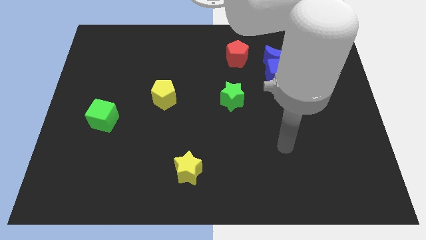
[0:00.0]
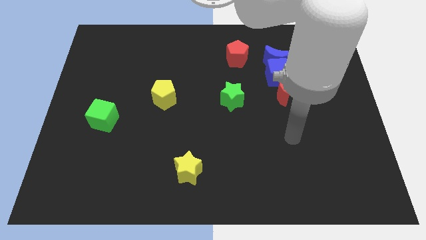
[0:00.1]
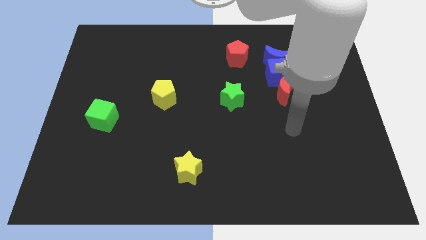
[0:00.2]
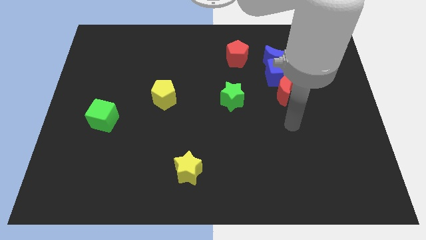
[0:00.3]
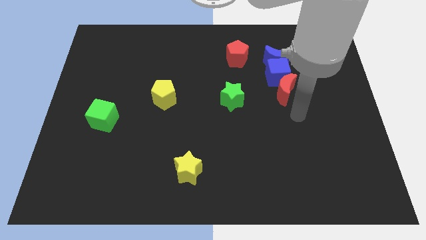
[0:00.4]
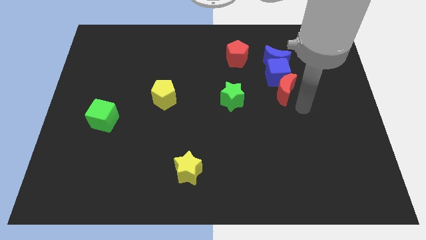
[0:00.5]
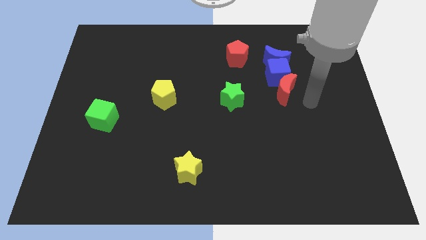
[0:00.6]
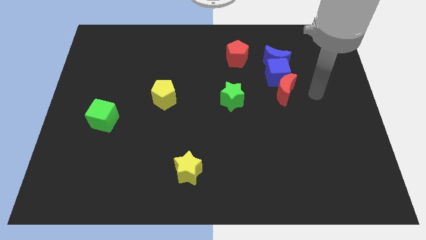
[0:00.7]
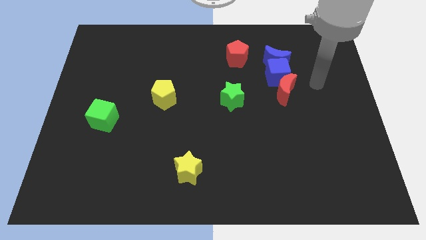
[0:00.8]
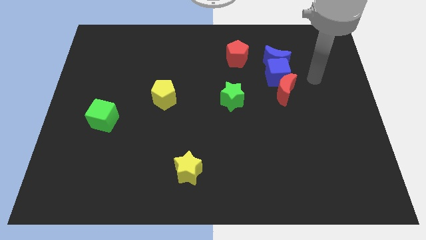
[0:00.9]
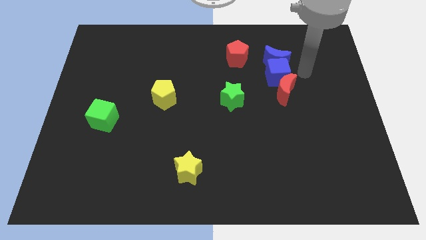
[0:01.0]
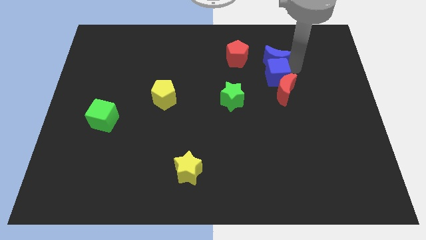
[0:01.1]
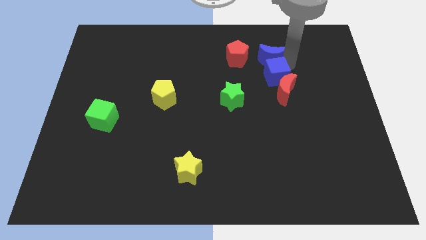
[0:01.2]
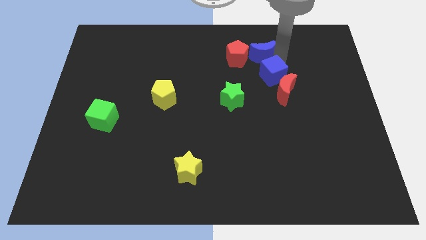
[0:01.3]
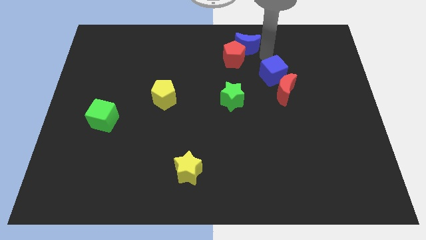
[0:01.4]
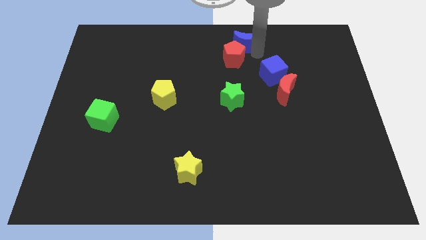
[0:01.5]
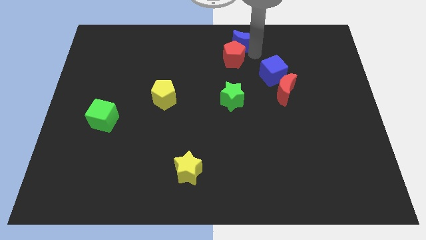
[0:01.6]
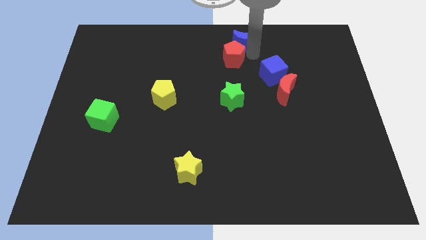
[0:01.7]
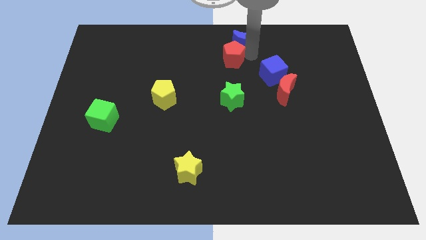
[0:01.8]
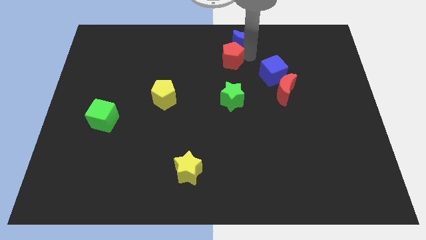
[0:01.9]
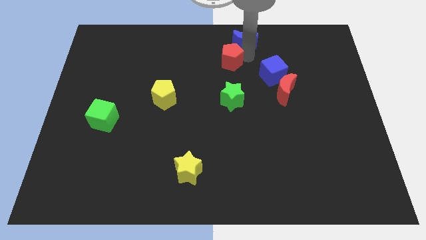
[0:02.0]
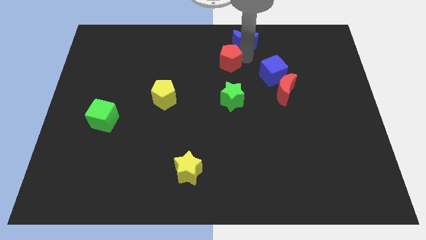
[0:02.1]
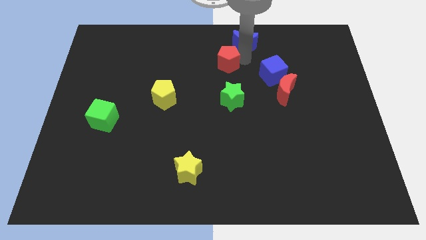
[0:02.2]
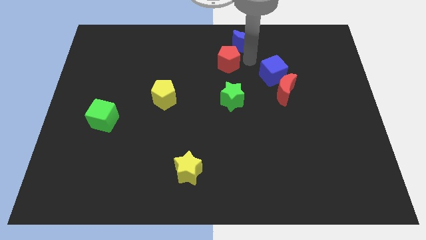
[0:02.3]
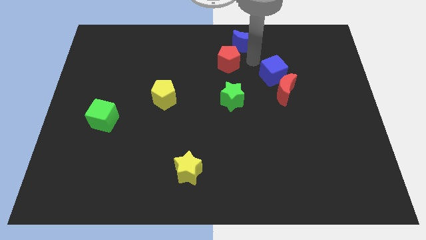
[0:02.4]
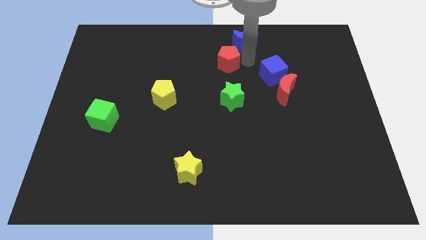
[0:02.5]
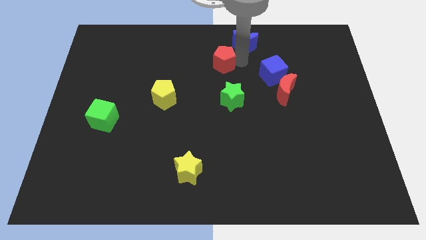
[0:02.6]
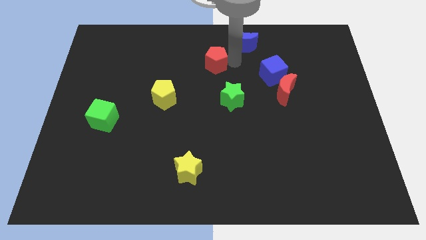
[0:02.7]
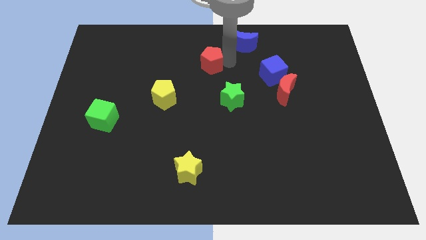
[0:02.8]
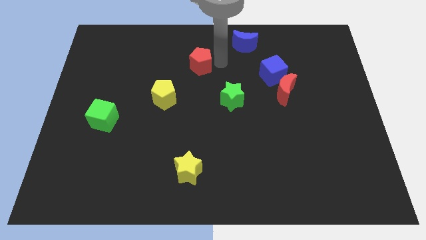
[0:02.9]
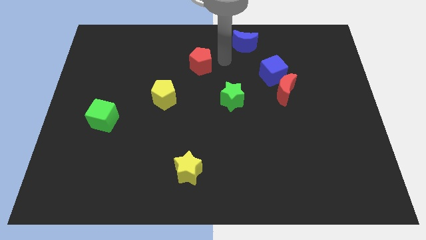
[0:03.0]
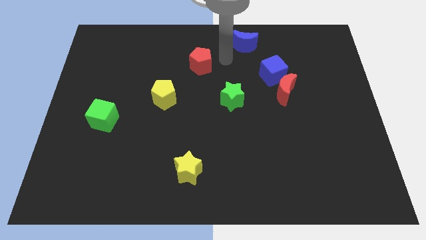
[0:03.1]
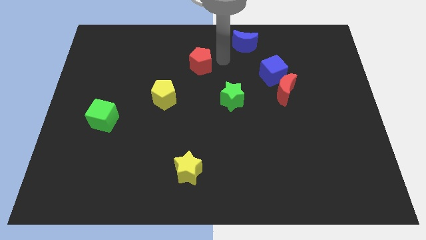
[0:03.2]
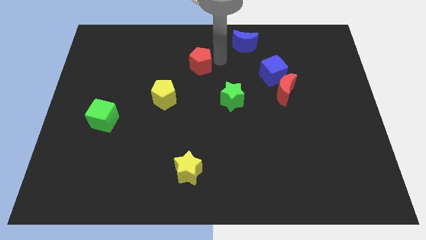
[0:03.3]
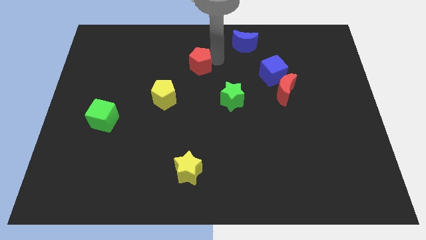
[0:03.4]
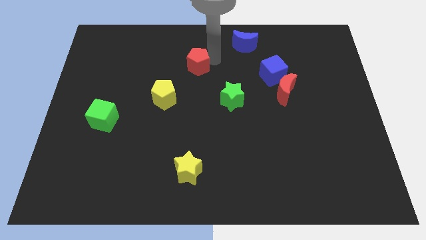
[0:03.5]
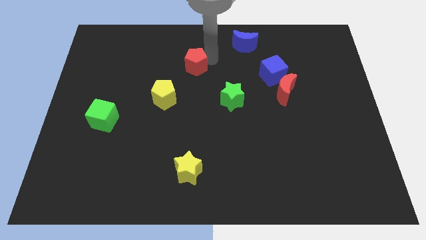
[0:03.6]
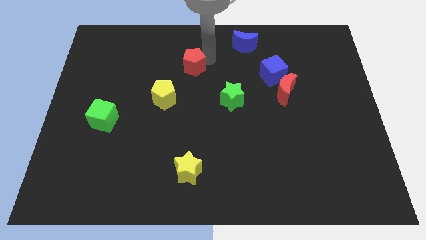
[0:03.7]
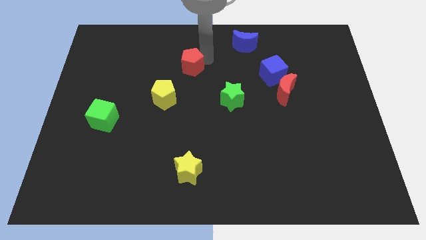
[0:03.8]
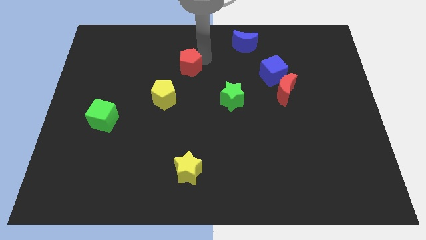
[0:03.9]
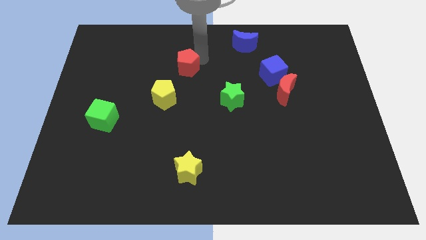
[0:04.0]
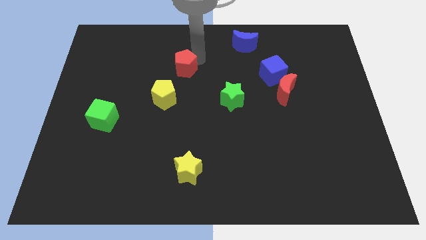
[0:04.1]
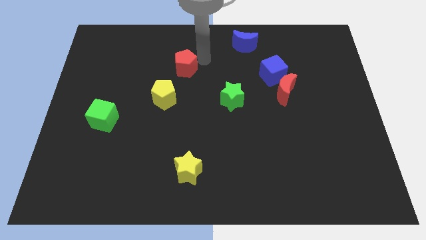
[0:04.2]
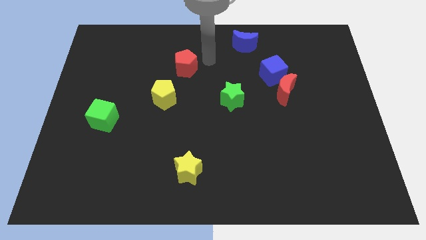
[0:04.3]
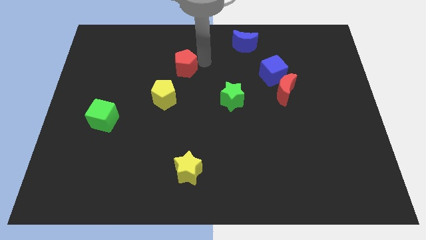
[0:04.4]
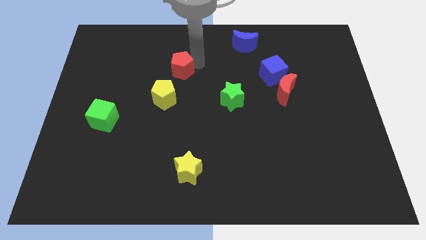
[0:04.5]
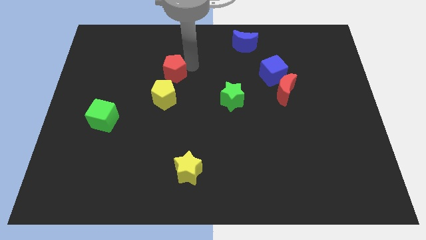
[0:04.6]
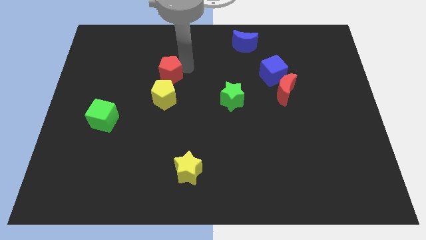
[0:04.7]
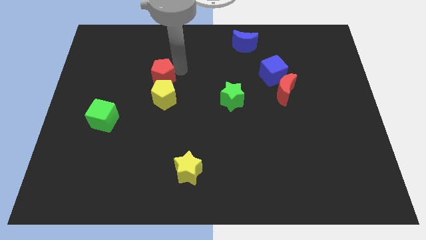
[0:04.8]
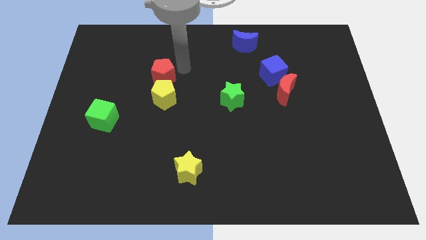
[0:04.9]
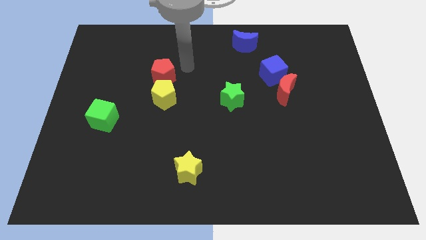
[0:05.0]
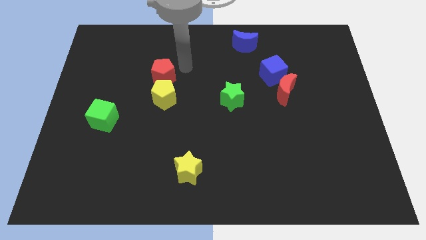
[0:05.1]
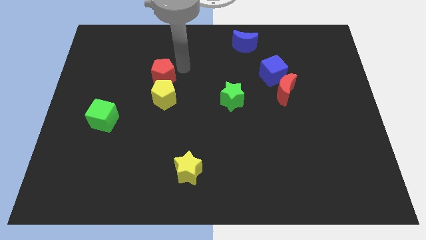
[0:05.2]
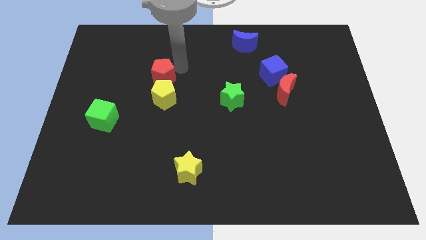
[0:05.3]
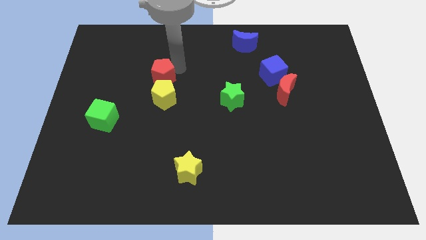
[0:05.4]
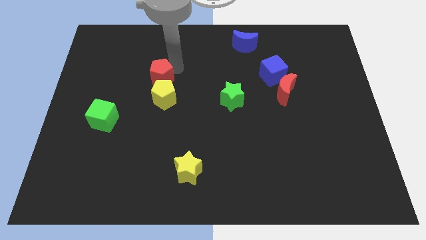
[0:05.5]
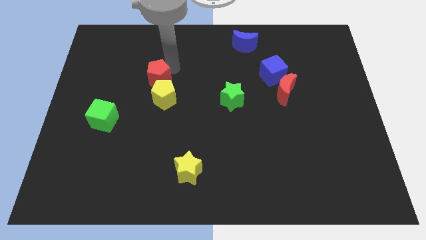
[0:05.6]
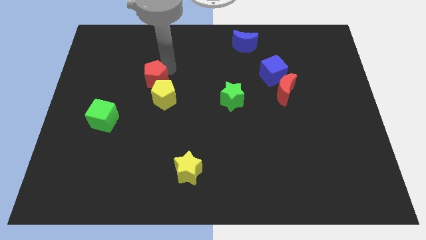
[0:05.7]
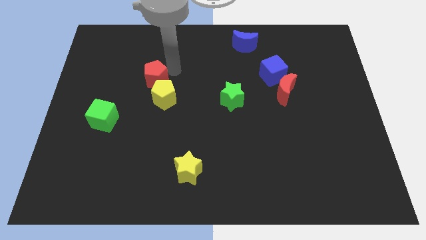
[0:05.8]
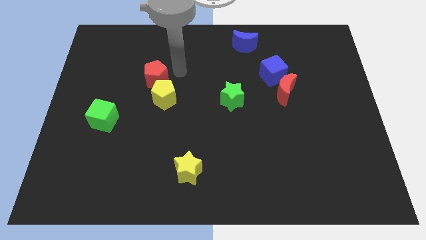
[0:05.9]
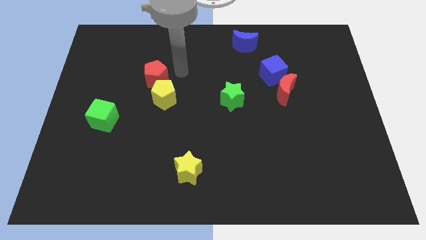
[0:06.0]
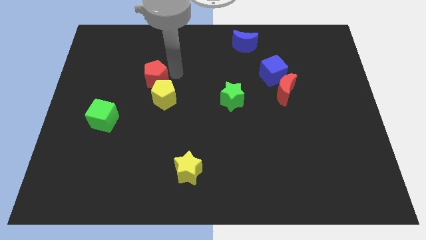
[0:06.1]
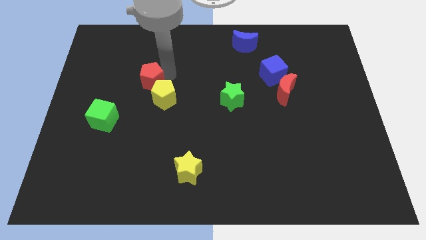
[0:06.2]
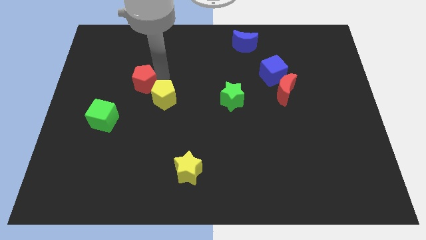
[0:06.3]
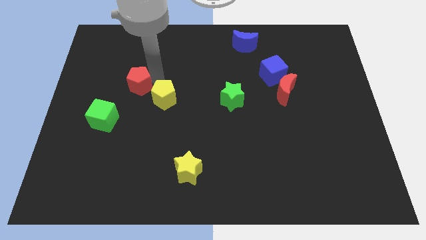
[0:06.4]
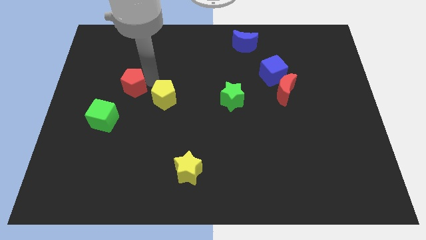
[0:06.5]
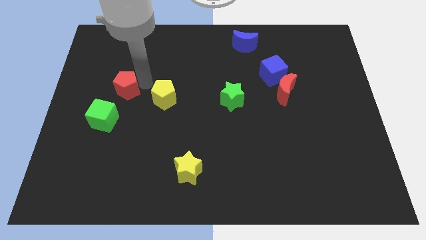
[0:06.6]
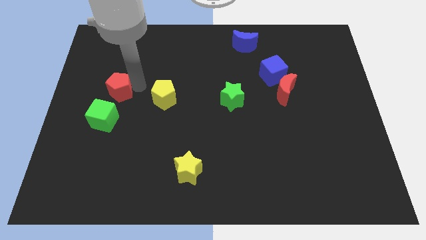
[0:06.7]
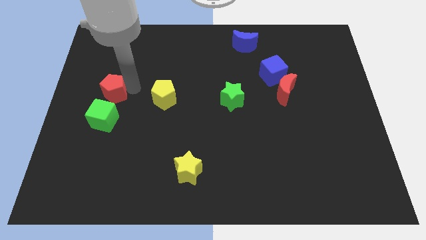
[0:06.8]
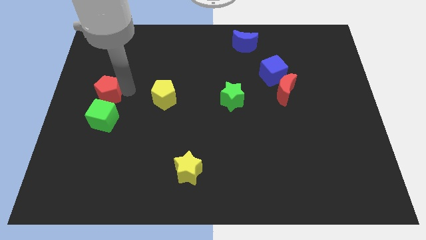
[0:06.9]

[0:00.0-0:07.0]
move the red pentagon to the left side of the board
